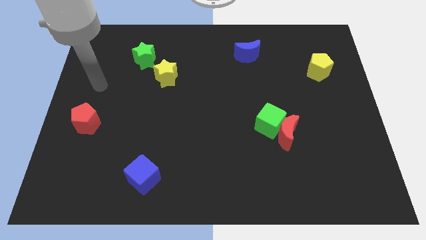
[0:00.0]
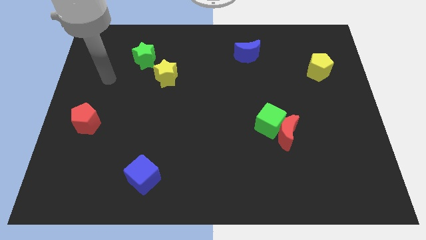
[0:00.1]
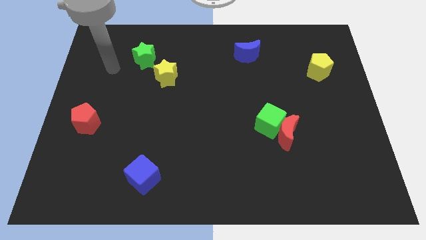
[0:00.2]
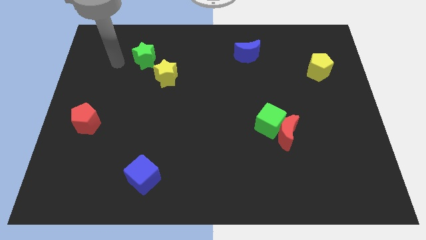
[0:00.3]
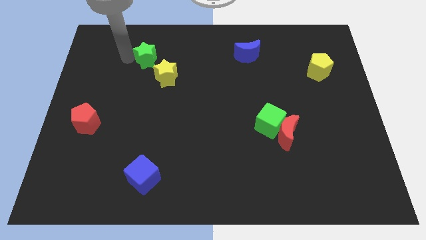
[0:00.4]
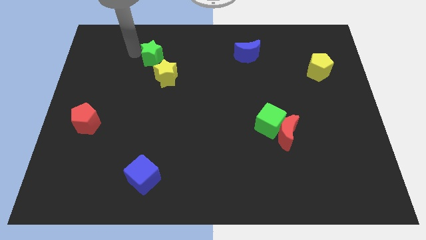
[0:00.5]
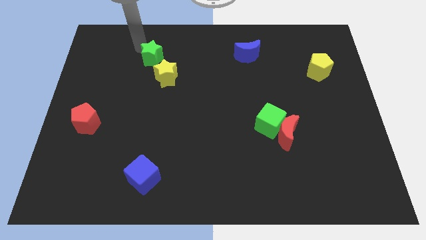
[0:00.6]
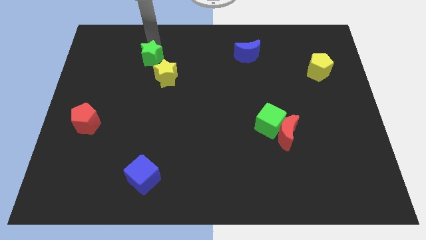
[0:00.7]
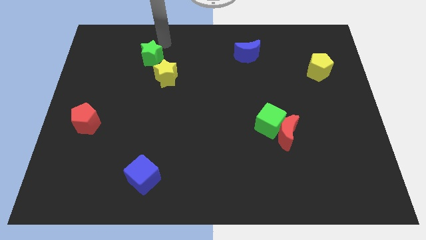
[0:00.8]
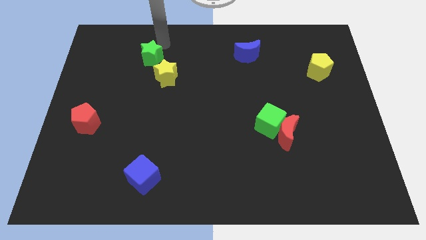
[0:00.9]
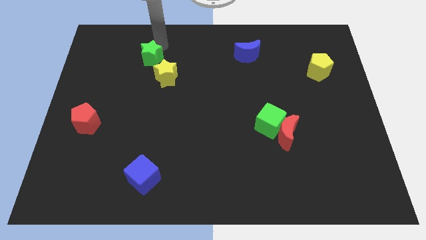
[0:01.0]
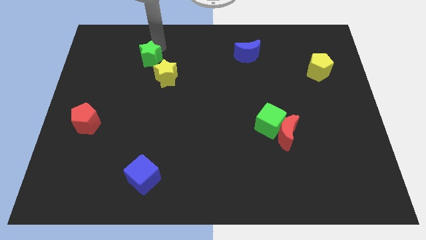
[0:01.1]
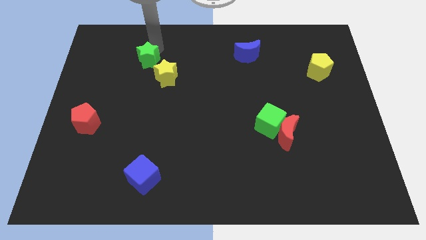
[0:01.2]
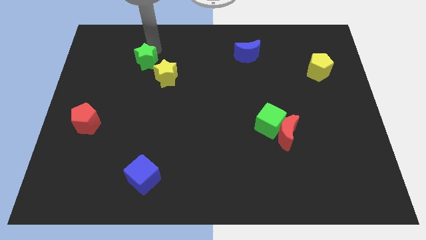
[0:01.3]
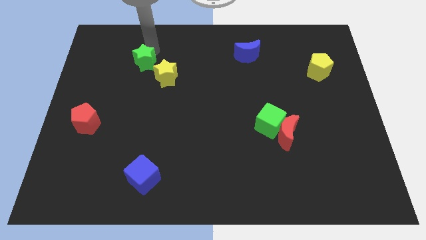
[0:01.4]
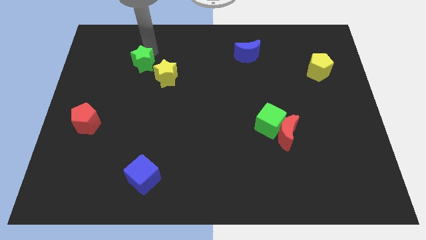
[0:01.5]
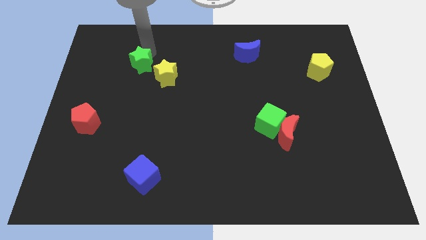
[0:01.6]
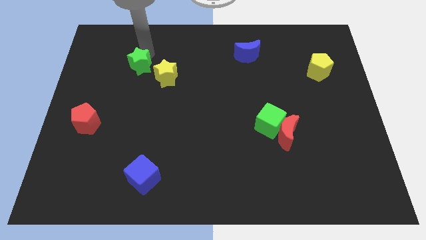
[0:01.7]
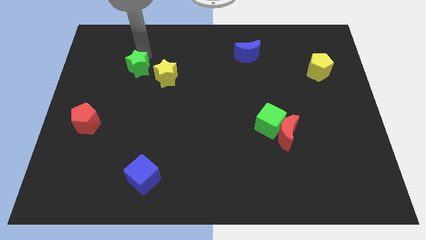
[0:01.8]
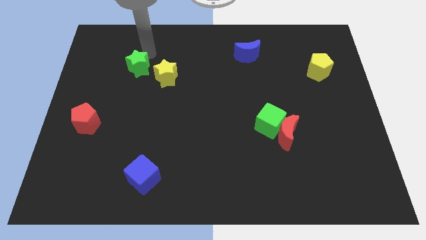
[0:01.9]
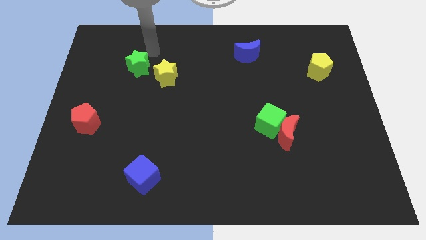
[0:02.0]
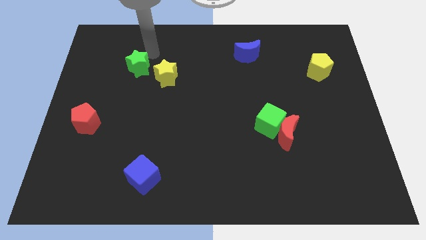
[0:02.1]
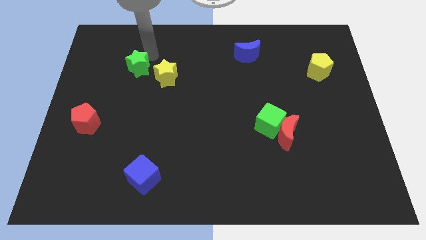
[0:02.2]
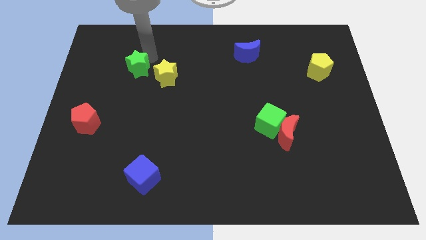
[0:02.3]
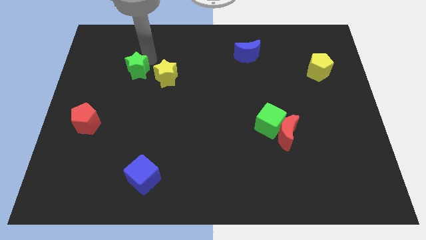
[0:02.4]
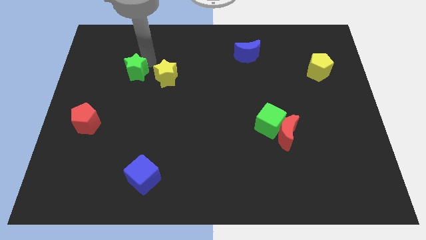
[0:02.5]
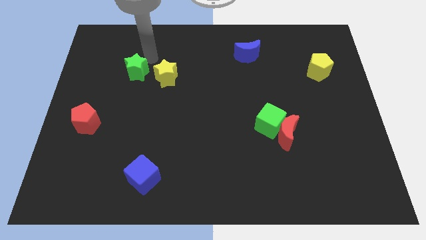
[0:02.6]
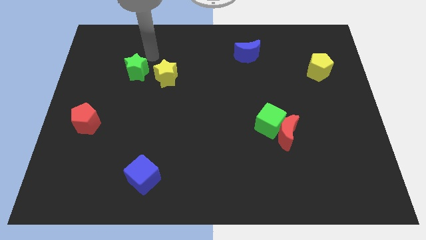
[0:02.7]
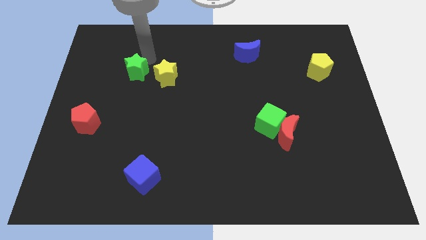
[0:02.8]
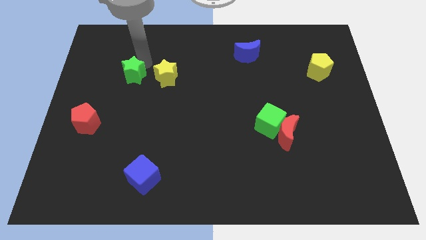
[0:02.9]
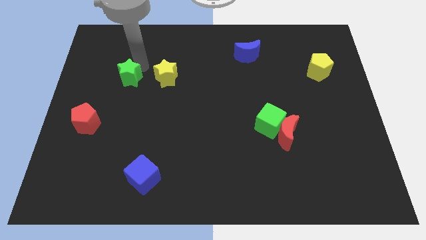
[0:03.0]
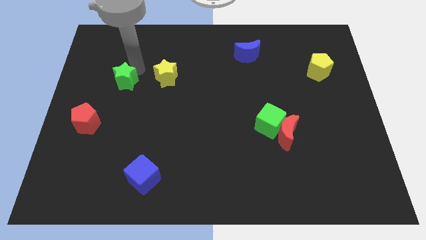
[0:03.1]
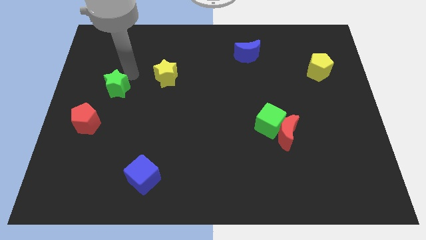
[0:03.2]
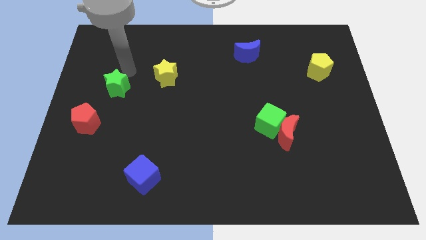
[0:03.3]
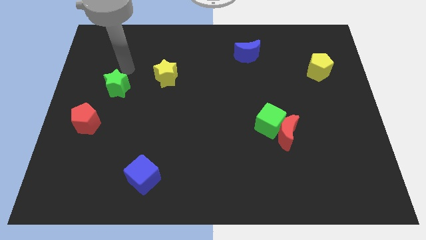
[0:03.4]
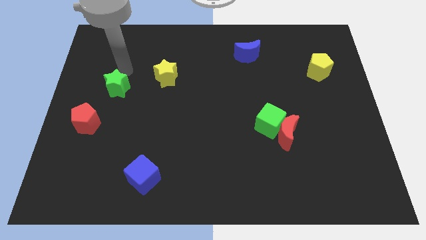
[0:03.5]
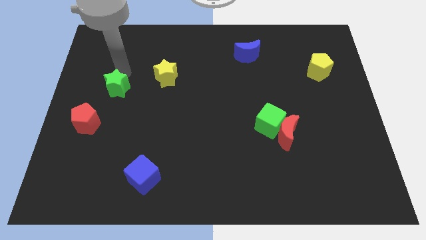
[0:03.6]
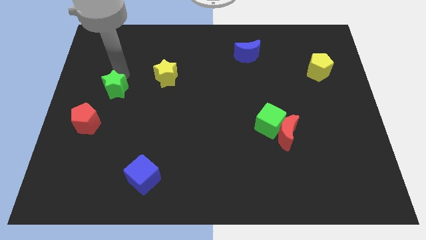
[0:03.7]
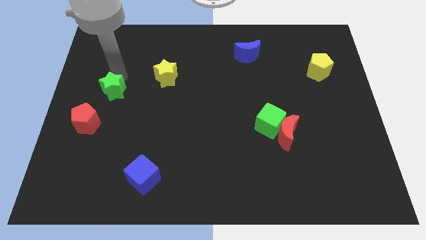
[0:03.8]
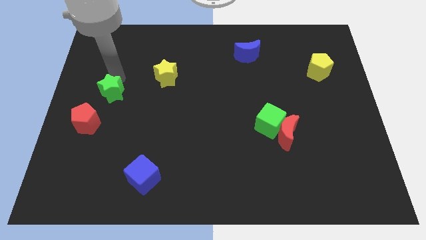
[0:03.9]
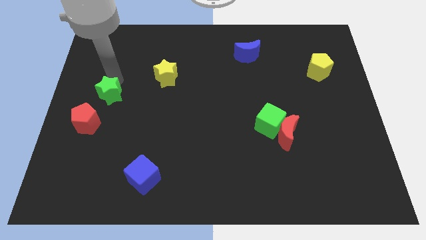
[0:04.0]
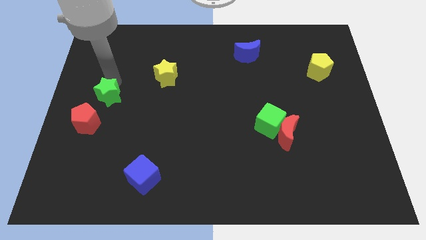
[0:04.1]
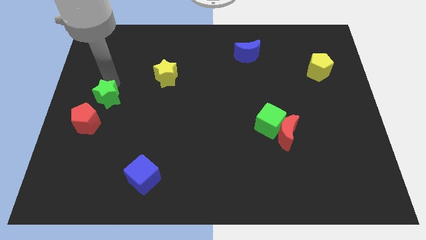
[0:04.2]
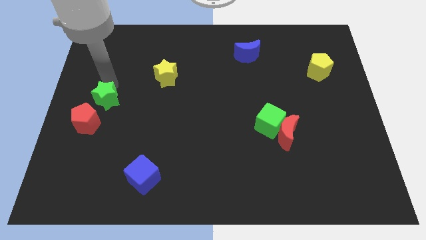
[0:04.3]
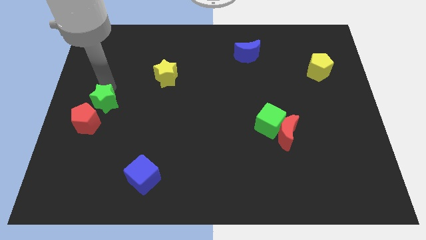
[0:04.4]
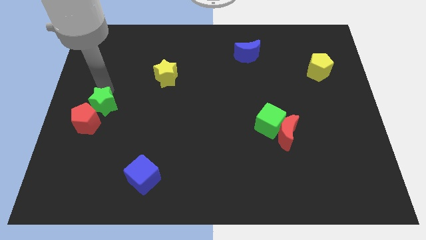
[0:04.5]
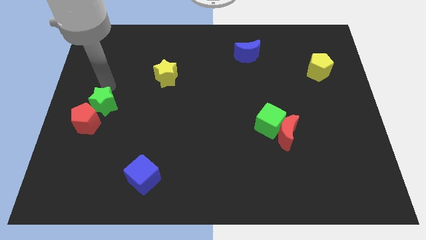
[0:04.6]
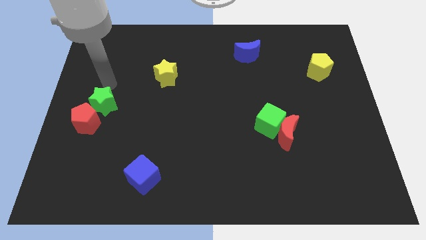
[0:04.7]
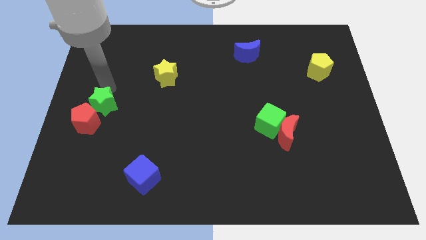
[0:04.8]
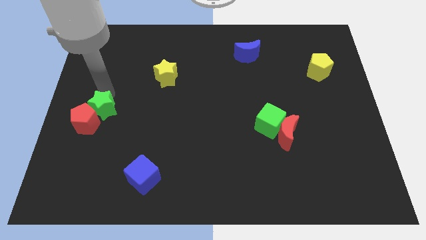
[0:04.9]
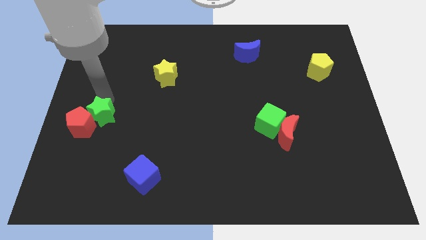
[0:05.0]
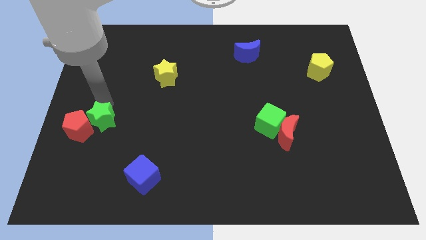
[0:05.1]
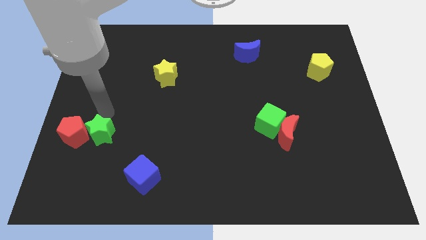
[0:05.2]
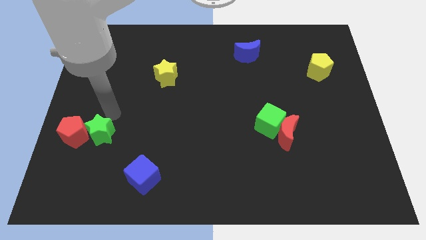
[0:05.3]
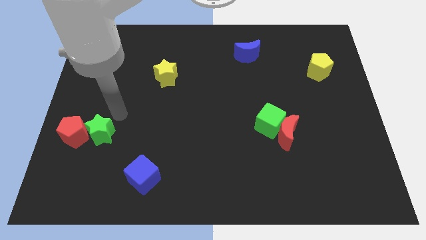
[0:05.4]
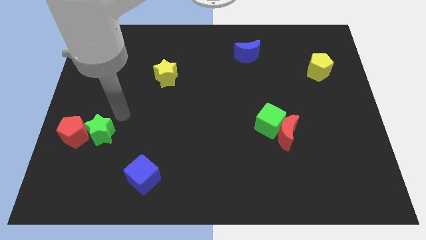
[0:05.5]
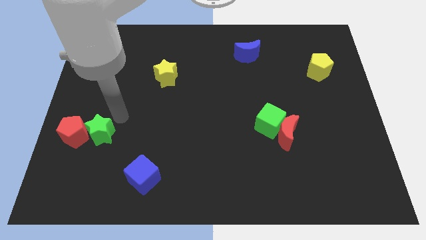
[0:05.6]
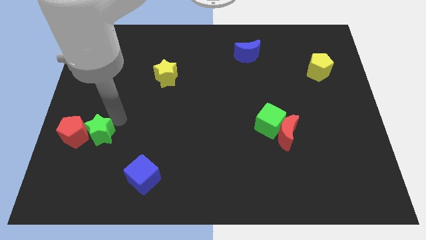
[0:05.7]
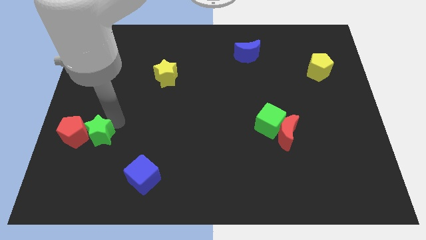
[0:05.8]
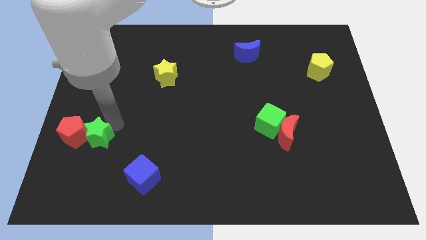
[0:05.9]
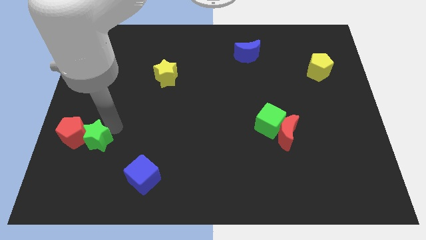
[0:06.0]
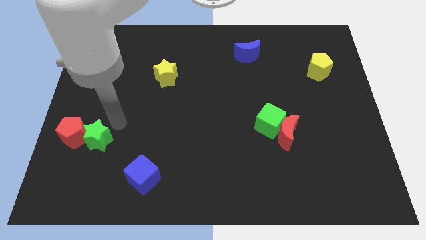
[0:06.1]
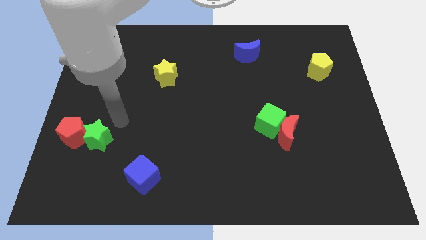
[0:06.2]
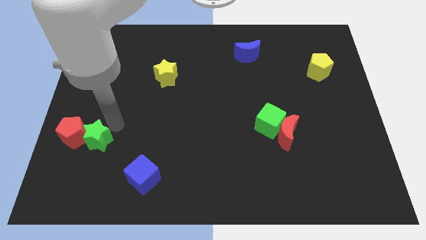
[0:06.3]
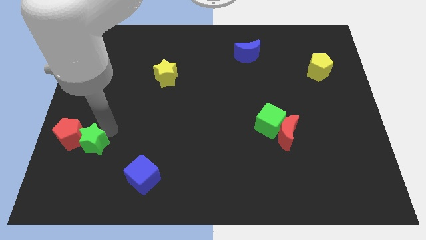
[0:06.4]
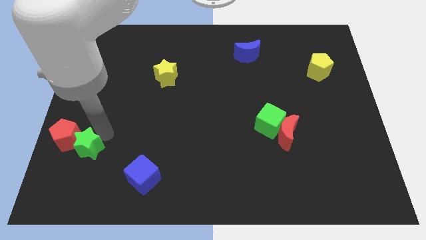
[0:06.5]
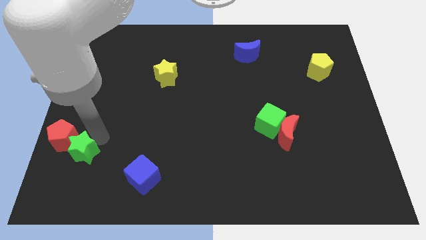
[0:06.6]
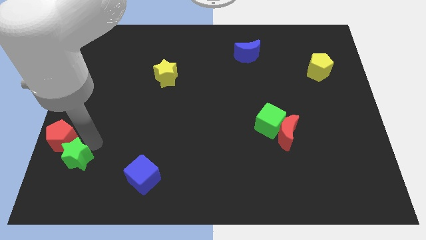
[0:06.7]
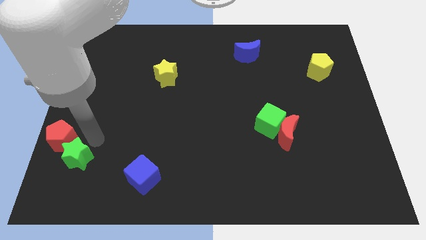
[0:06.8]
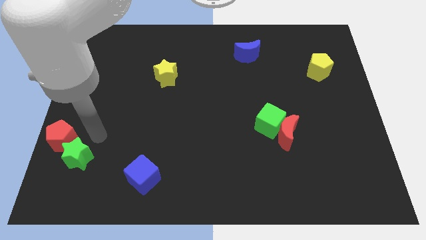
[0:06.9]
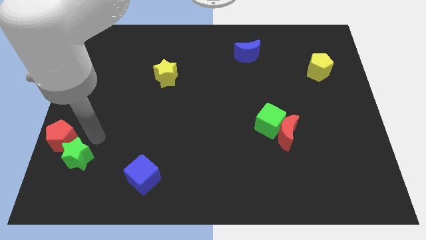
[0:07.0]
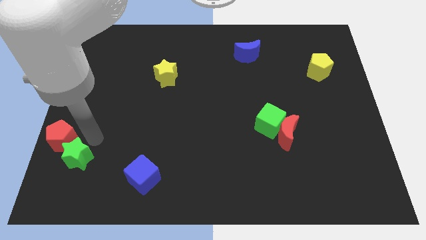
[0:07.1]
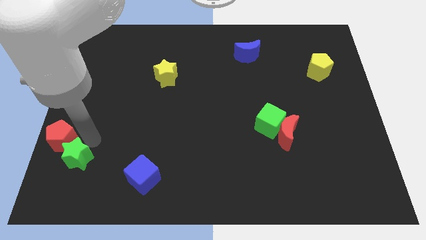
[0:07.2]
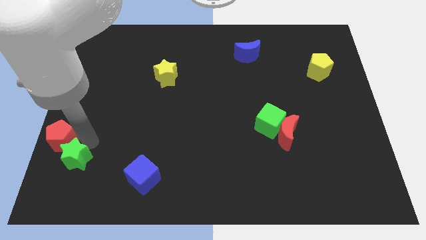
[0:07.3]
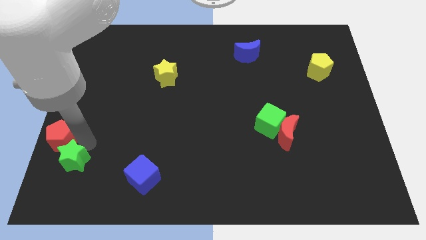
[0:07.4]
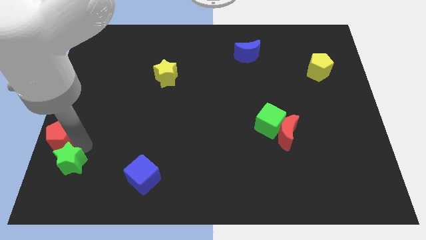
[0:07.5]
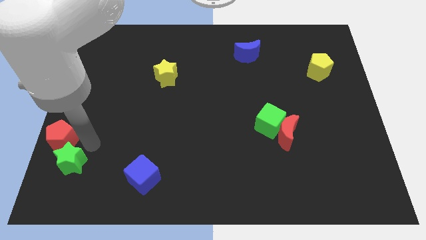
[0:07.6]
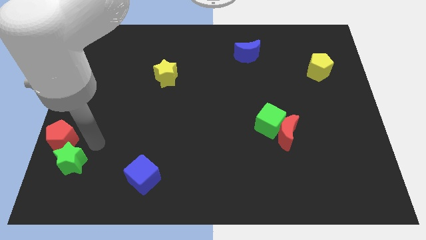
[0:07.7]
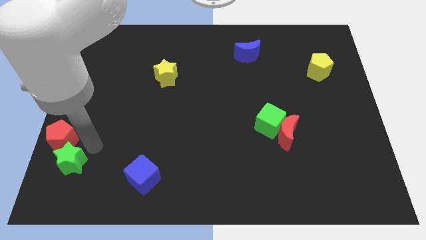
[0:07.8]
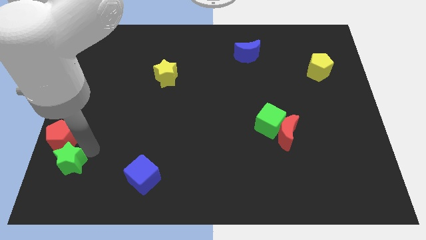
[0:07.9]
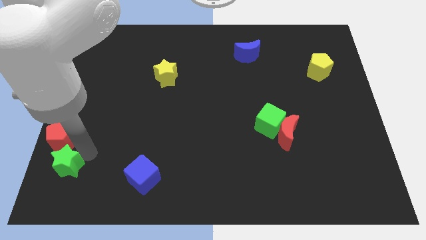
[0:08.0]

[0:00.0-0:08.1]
put the green star to the bottom left corner
